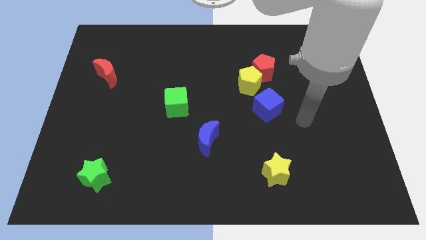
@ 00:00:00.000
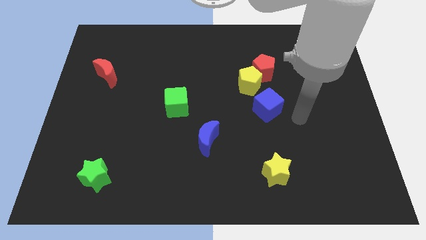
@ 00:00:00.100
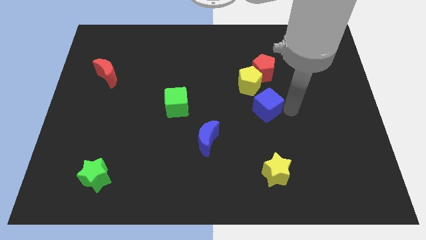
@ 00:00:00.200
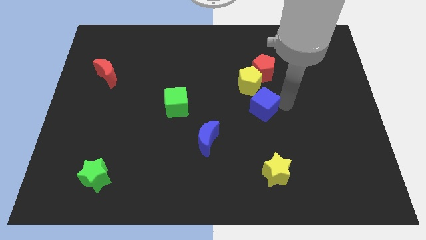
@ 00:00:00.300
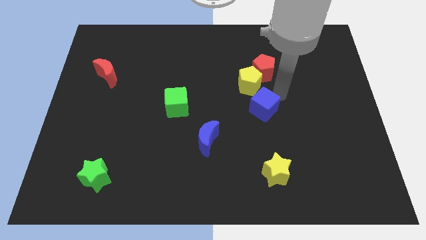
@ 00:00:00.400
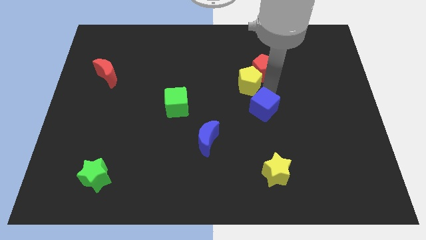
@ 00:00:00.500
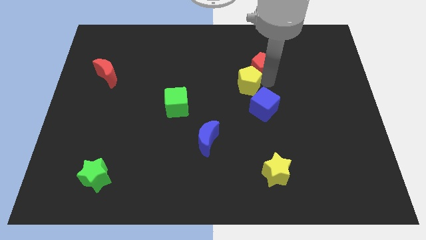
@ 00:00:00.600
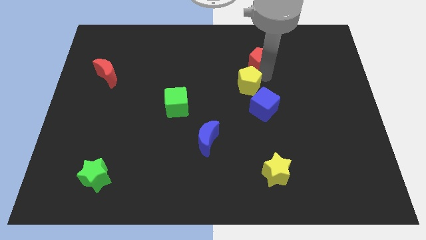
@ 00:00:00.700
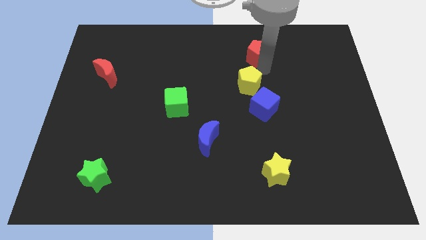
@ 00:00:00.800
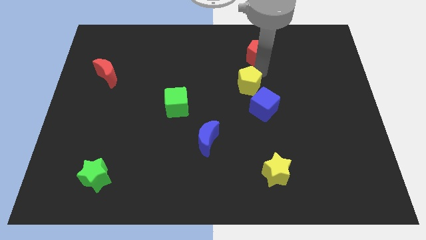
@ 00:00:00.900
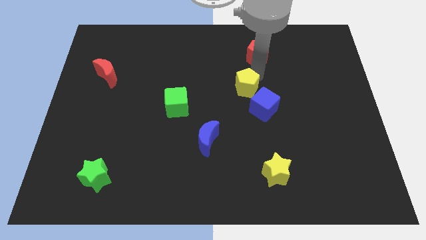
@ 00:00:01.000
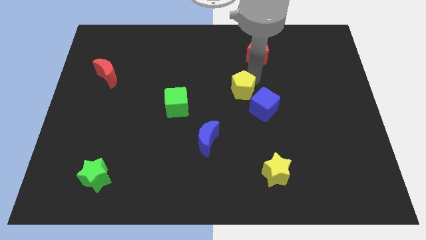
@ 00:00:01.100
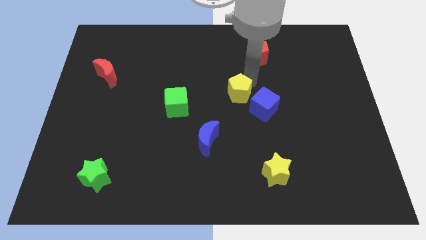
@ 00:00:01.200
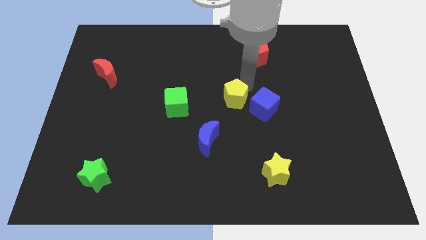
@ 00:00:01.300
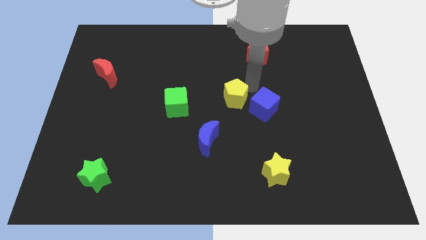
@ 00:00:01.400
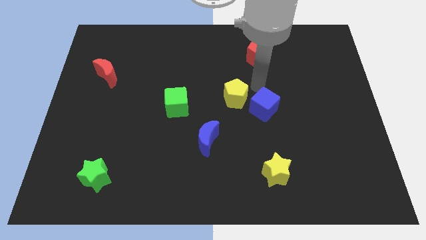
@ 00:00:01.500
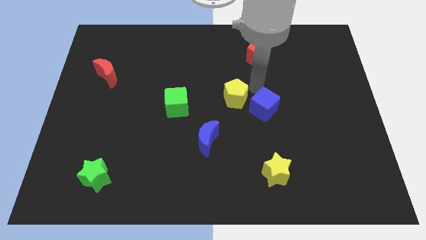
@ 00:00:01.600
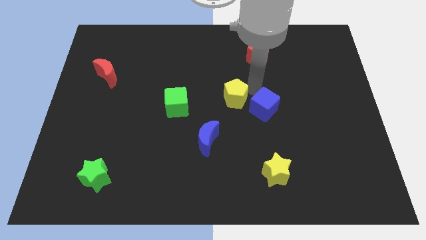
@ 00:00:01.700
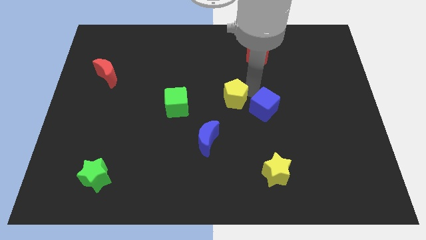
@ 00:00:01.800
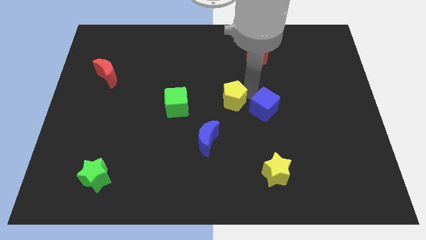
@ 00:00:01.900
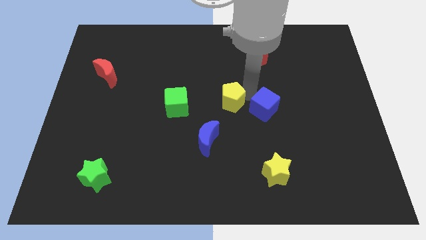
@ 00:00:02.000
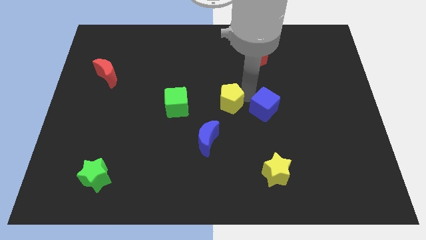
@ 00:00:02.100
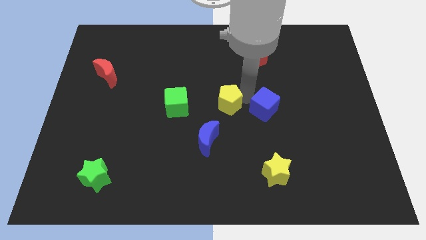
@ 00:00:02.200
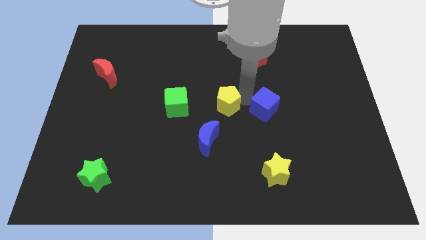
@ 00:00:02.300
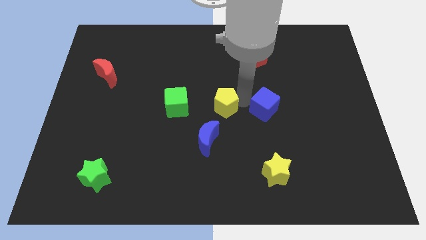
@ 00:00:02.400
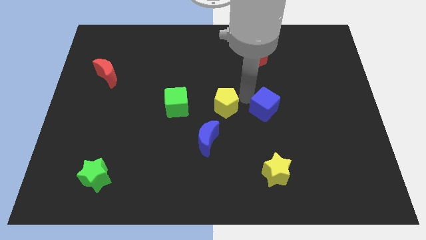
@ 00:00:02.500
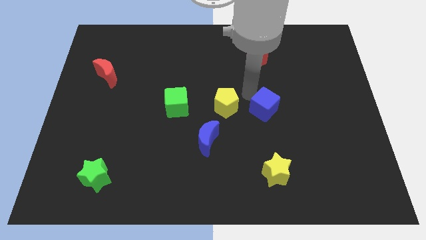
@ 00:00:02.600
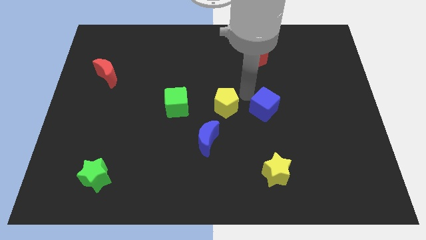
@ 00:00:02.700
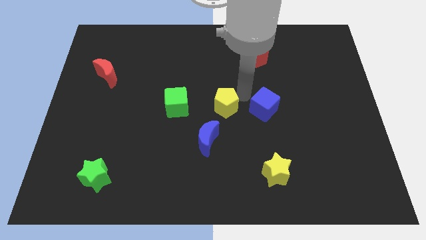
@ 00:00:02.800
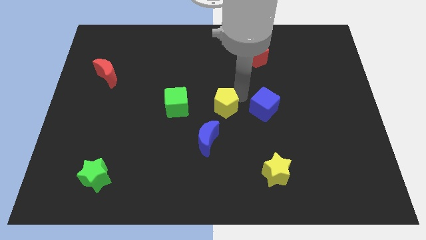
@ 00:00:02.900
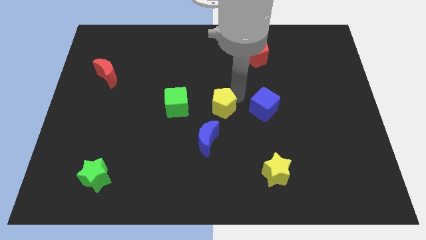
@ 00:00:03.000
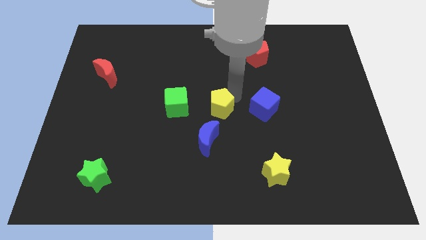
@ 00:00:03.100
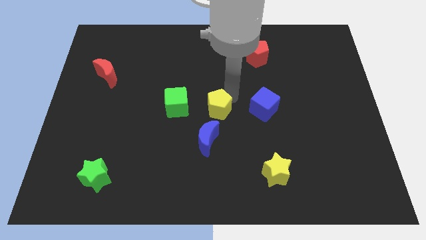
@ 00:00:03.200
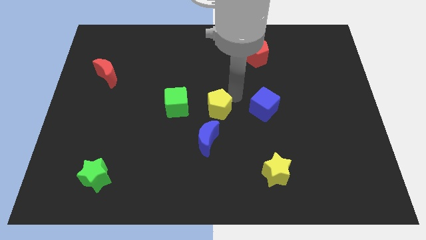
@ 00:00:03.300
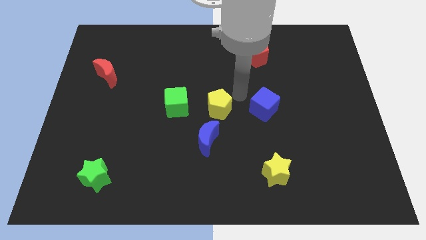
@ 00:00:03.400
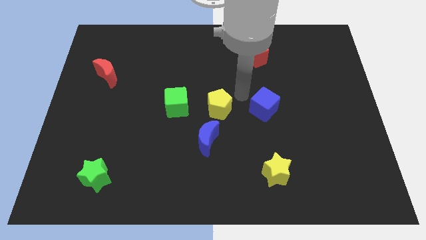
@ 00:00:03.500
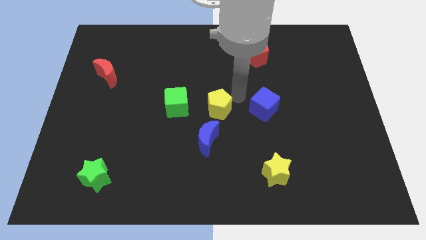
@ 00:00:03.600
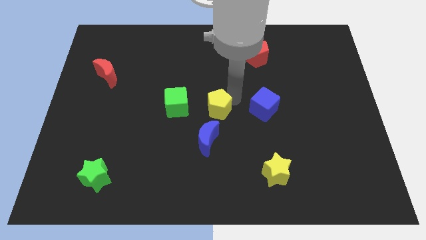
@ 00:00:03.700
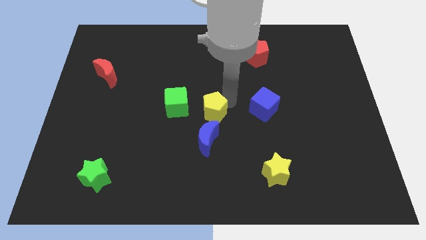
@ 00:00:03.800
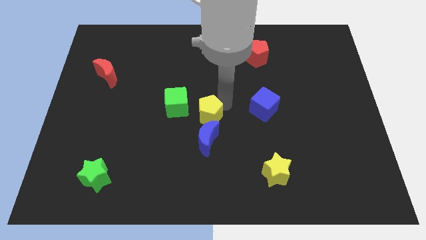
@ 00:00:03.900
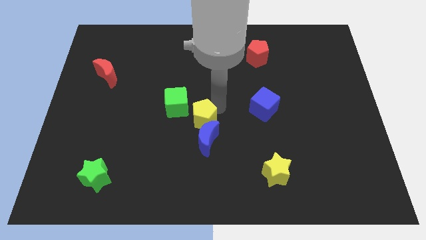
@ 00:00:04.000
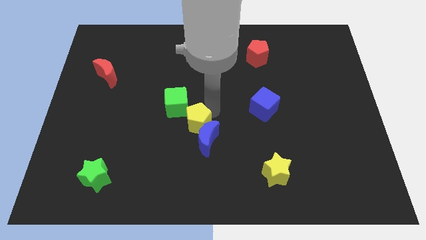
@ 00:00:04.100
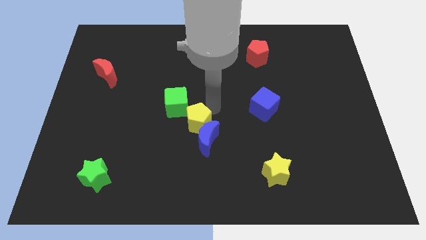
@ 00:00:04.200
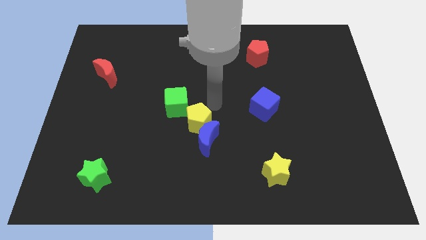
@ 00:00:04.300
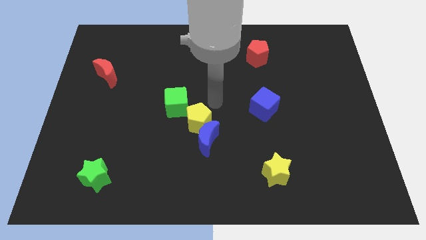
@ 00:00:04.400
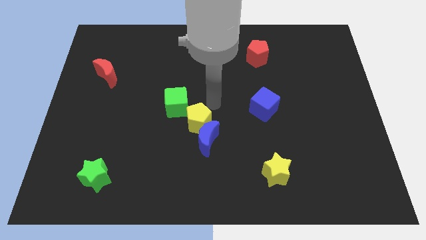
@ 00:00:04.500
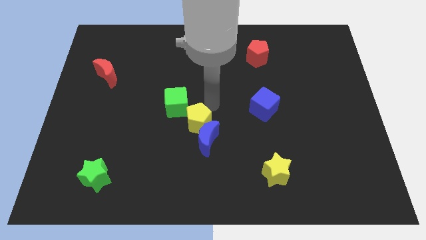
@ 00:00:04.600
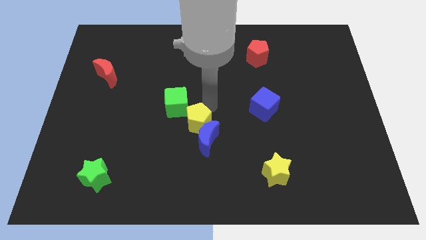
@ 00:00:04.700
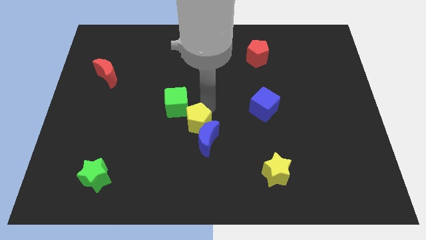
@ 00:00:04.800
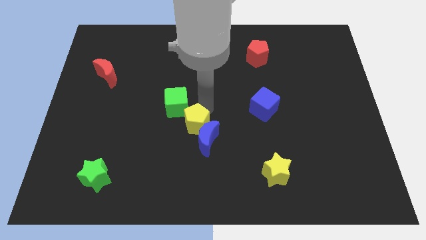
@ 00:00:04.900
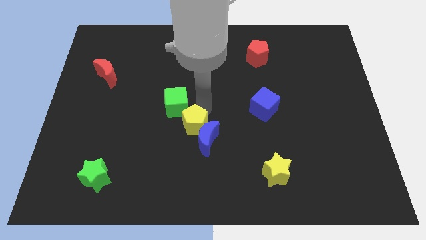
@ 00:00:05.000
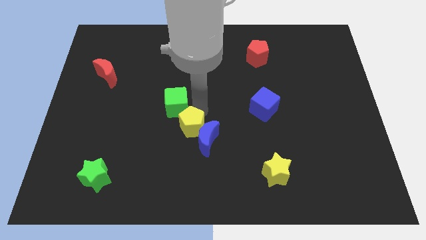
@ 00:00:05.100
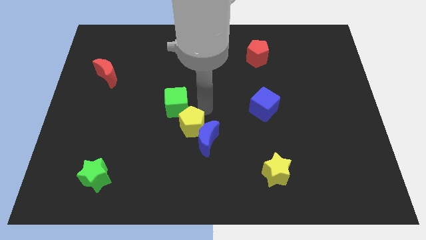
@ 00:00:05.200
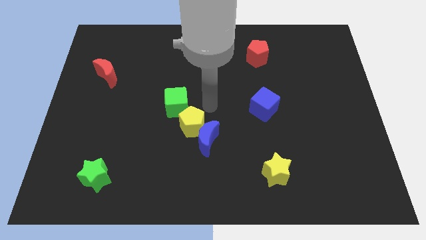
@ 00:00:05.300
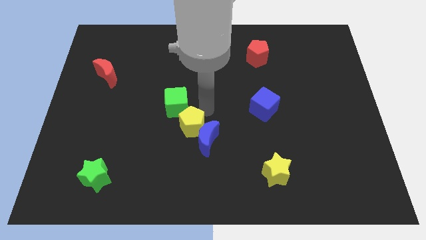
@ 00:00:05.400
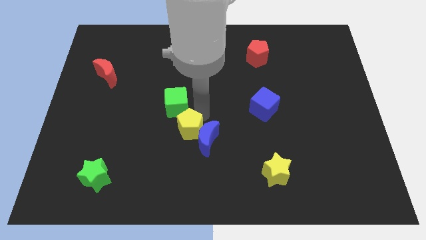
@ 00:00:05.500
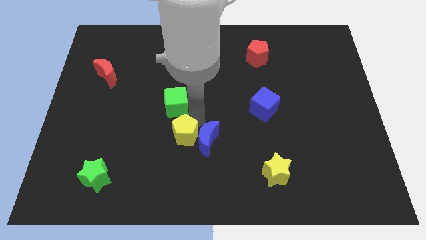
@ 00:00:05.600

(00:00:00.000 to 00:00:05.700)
push the yellow pentagon down and then to the left

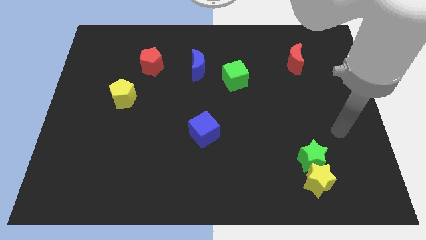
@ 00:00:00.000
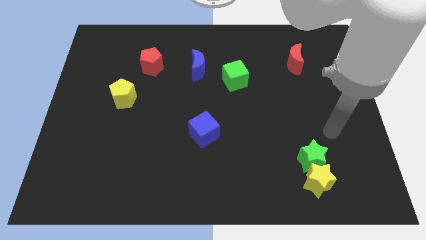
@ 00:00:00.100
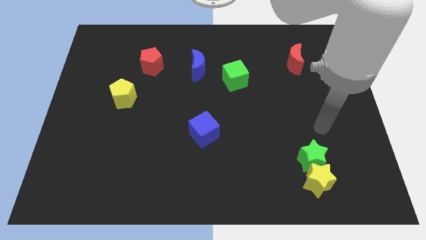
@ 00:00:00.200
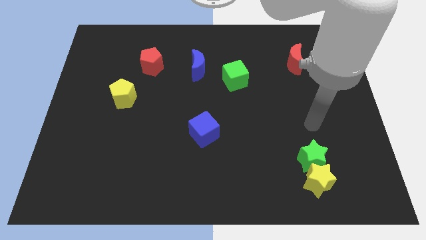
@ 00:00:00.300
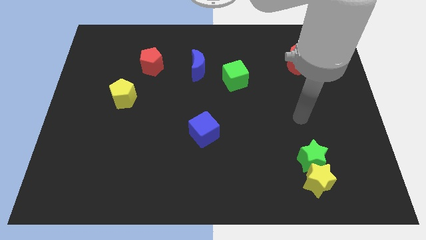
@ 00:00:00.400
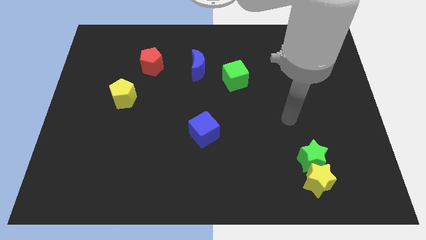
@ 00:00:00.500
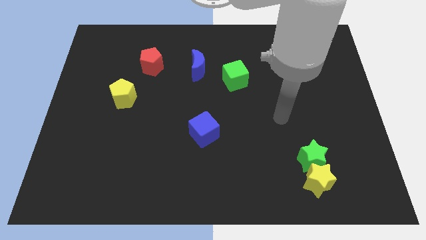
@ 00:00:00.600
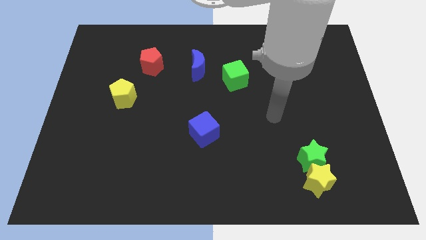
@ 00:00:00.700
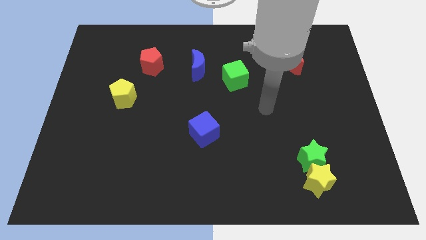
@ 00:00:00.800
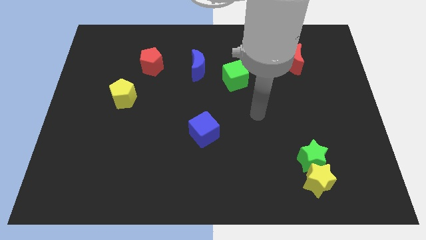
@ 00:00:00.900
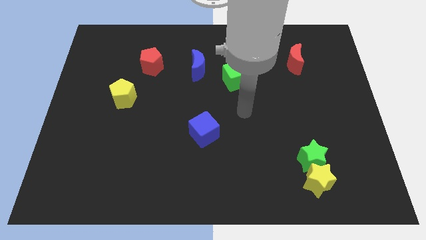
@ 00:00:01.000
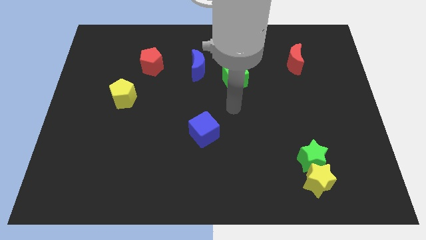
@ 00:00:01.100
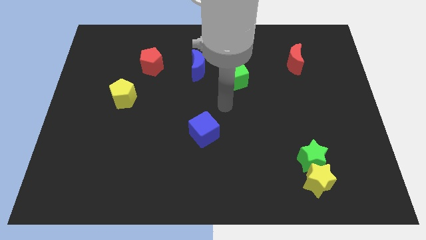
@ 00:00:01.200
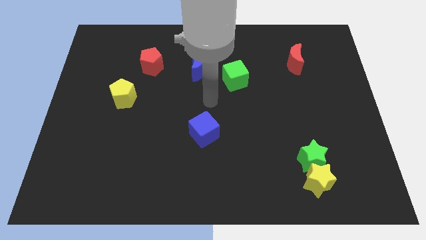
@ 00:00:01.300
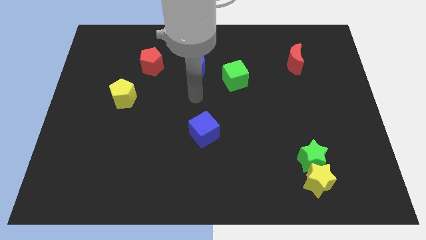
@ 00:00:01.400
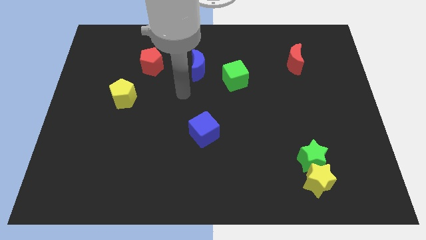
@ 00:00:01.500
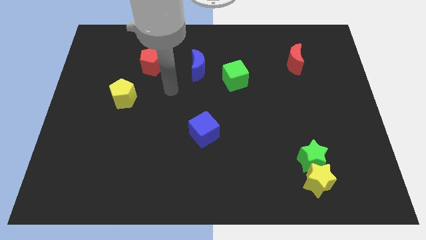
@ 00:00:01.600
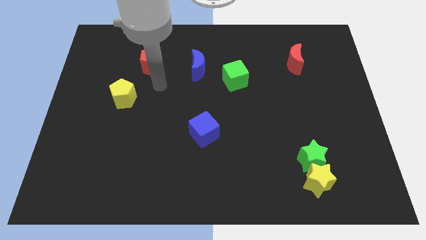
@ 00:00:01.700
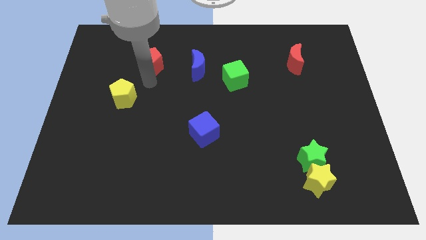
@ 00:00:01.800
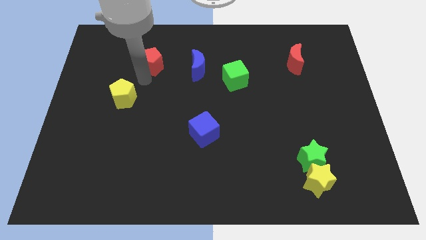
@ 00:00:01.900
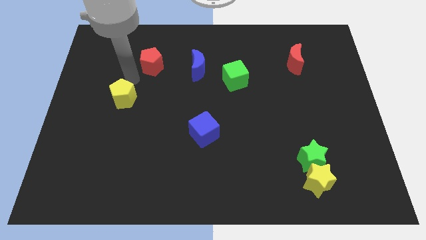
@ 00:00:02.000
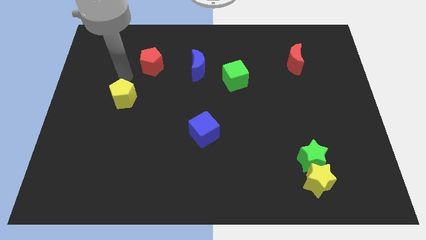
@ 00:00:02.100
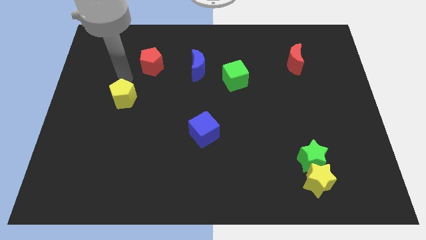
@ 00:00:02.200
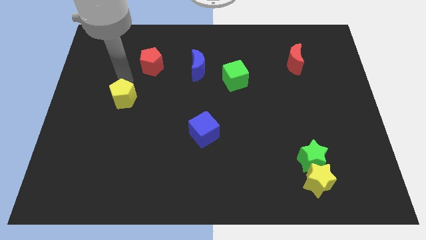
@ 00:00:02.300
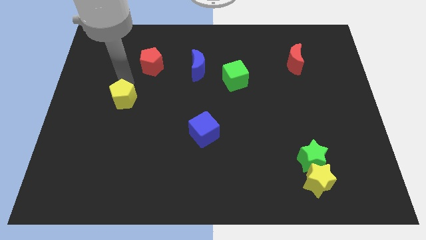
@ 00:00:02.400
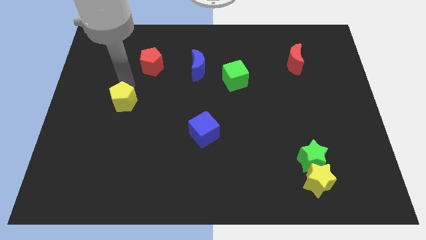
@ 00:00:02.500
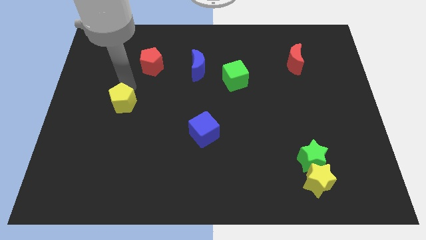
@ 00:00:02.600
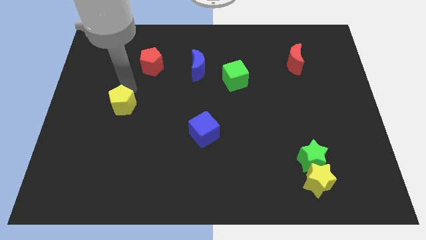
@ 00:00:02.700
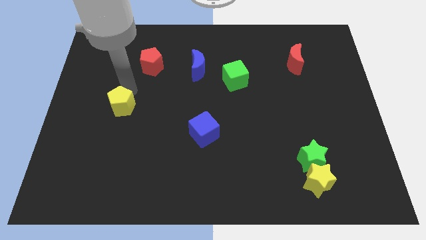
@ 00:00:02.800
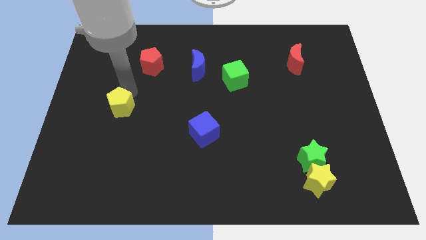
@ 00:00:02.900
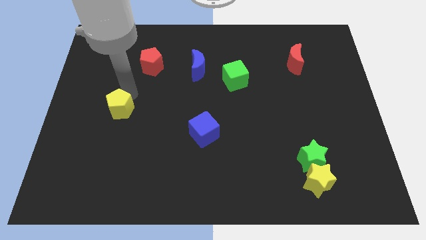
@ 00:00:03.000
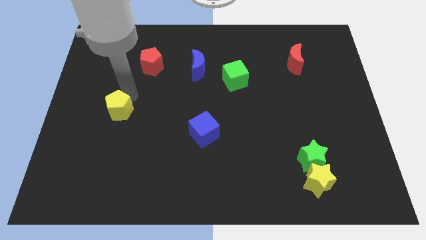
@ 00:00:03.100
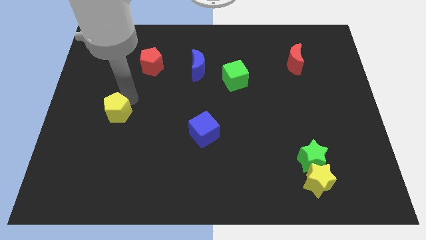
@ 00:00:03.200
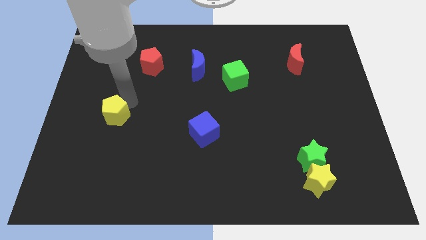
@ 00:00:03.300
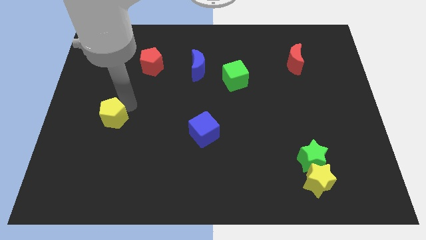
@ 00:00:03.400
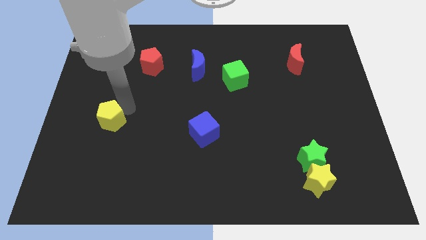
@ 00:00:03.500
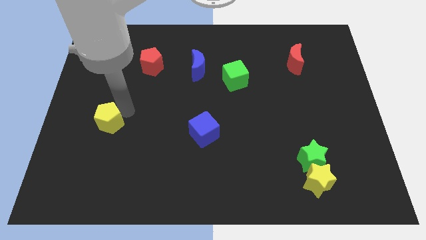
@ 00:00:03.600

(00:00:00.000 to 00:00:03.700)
slightly push the yellow pentagon downwards
